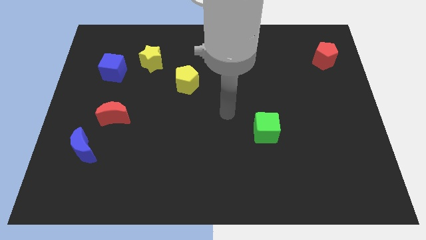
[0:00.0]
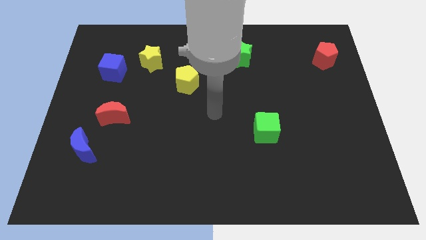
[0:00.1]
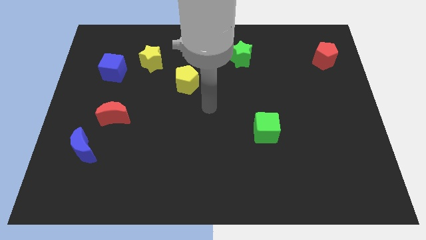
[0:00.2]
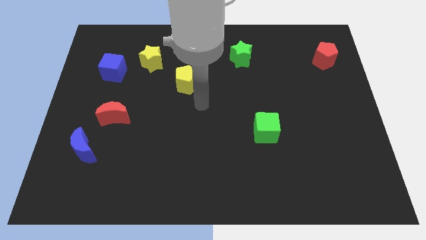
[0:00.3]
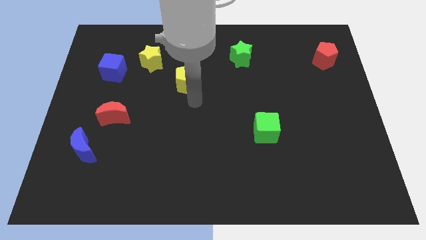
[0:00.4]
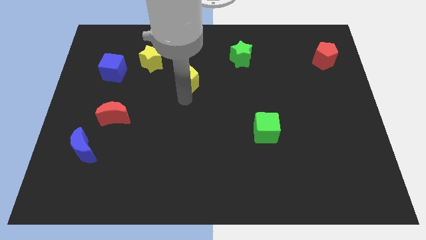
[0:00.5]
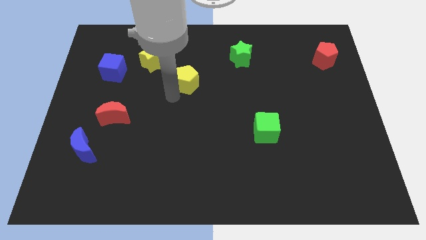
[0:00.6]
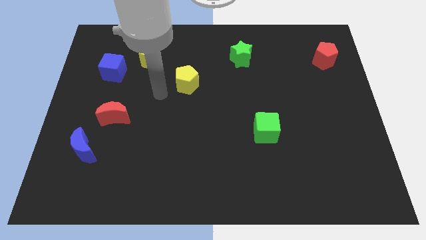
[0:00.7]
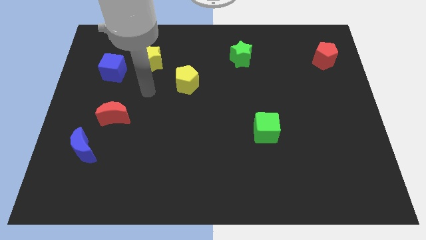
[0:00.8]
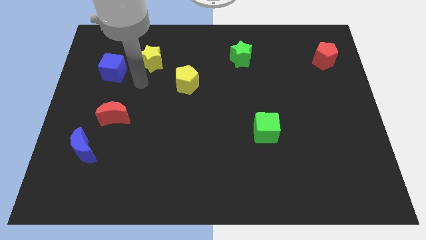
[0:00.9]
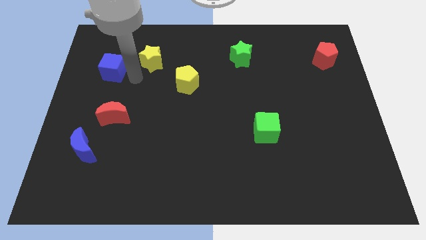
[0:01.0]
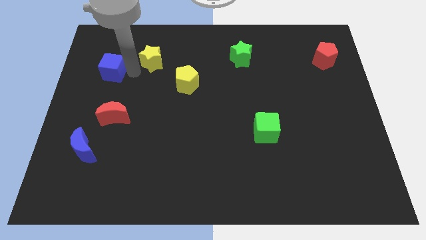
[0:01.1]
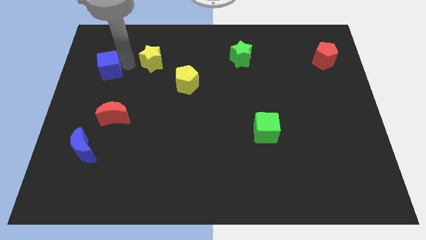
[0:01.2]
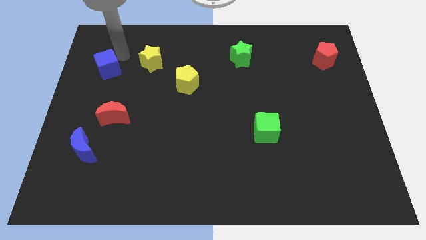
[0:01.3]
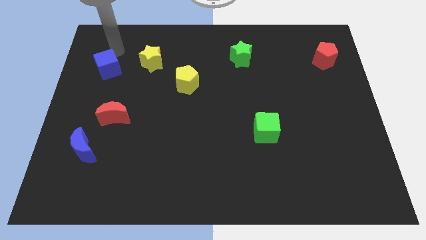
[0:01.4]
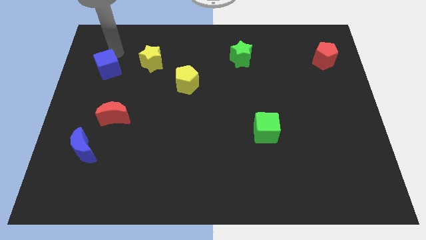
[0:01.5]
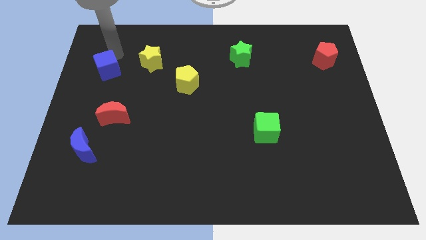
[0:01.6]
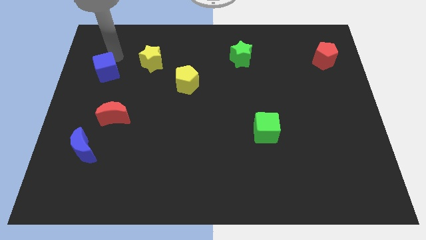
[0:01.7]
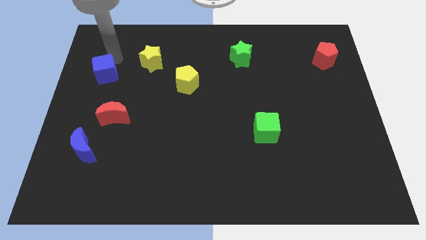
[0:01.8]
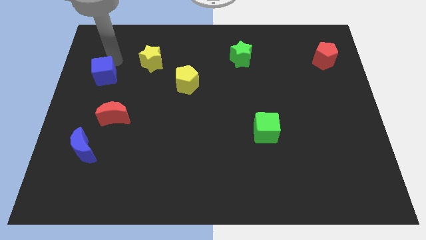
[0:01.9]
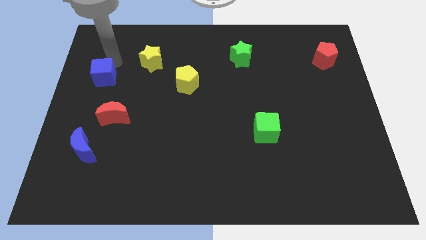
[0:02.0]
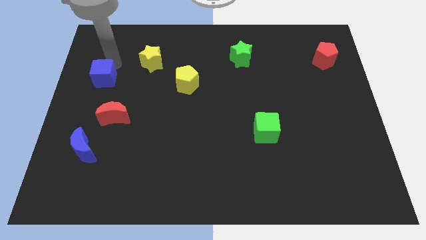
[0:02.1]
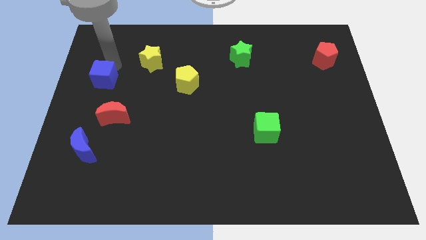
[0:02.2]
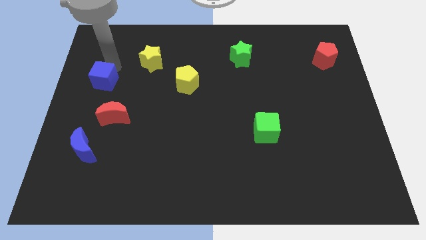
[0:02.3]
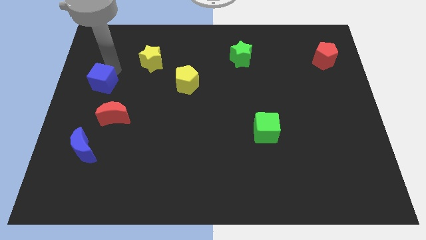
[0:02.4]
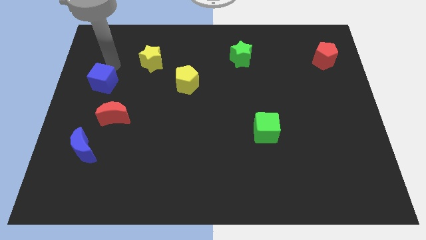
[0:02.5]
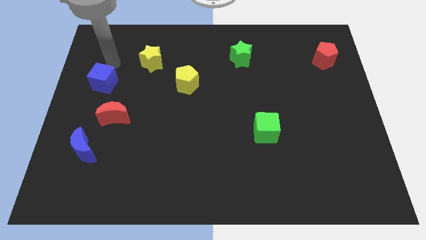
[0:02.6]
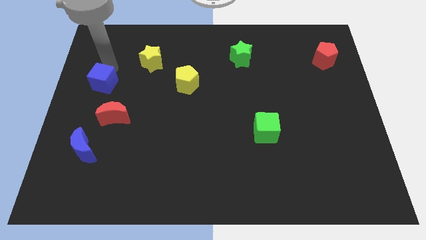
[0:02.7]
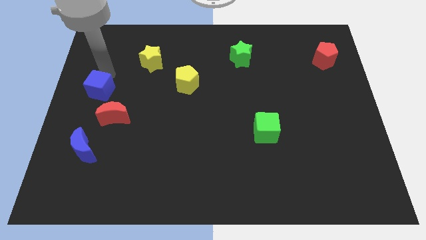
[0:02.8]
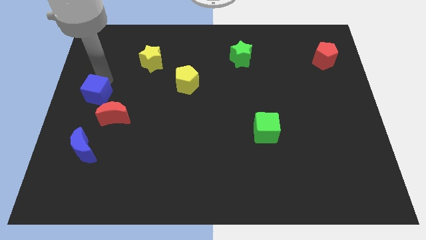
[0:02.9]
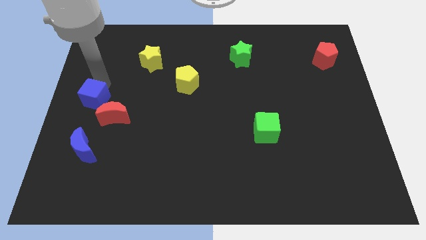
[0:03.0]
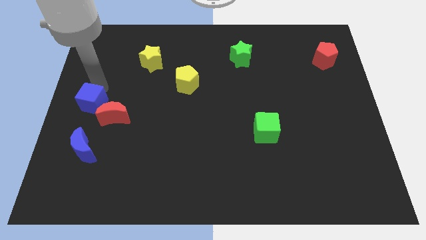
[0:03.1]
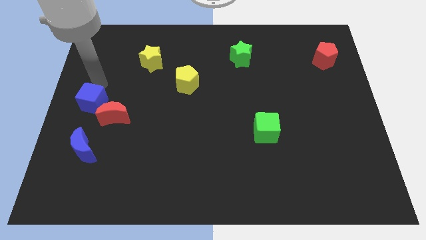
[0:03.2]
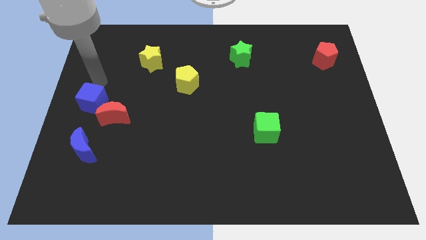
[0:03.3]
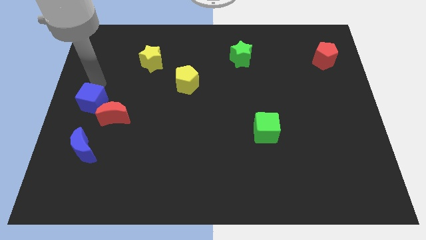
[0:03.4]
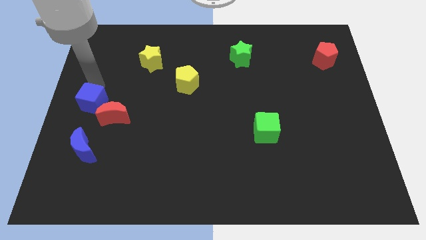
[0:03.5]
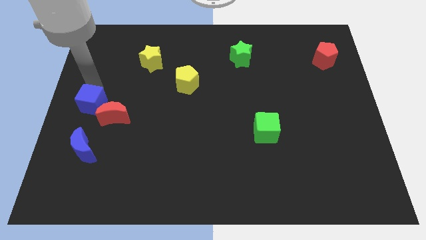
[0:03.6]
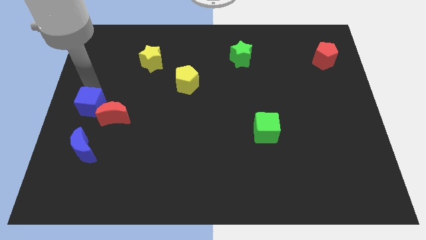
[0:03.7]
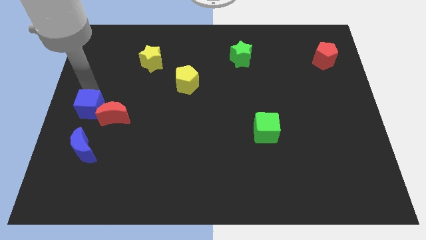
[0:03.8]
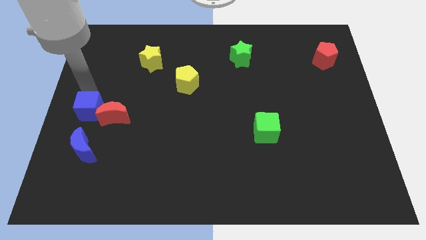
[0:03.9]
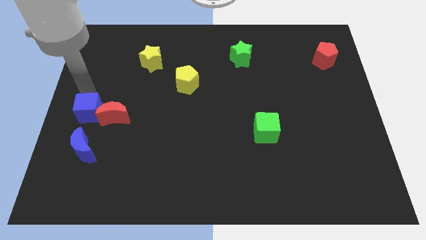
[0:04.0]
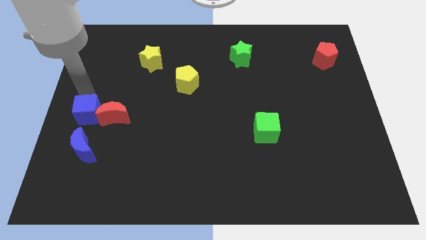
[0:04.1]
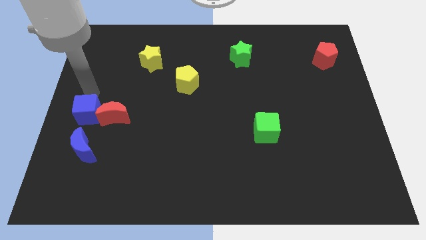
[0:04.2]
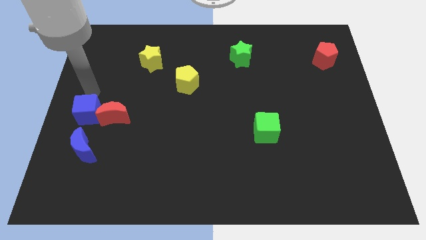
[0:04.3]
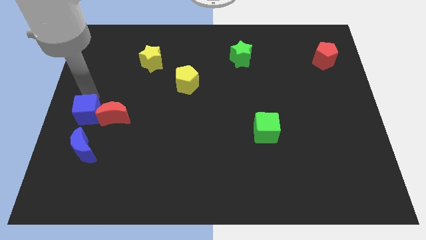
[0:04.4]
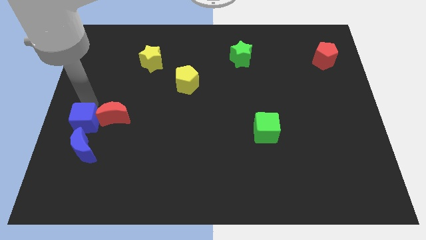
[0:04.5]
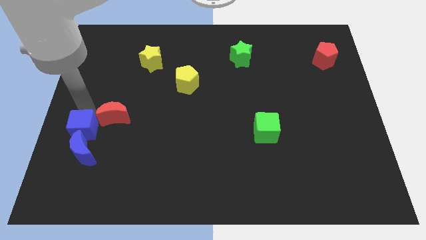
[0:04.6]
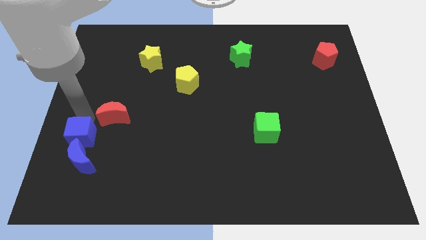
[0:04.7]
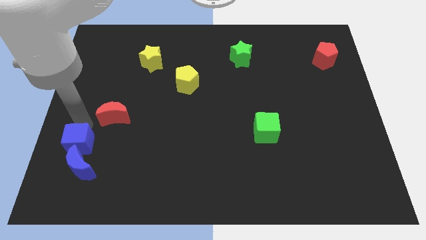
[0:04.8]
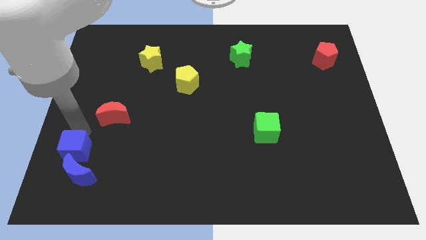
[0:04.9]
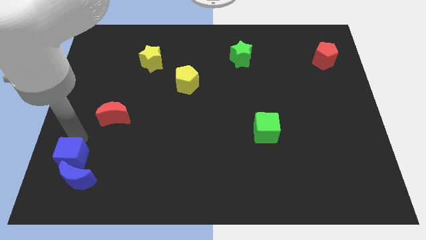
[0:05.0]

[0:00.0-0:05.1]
move the blue cube next to the blue moon

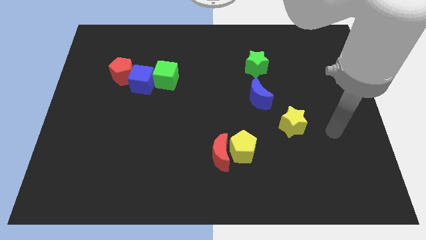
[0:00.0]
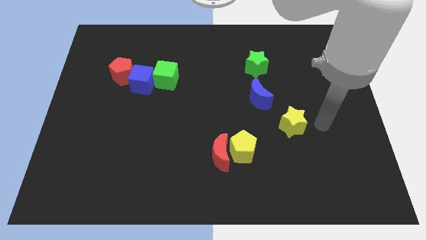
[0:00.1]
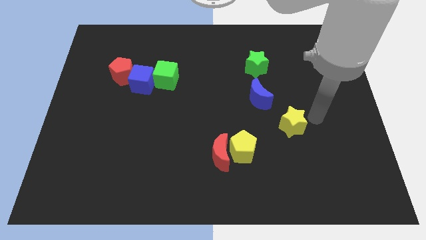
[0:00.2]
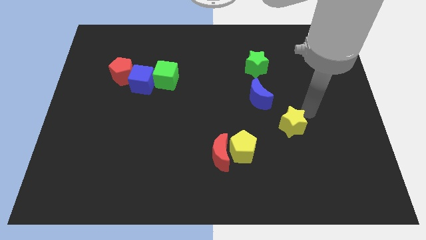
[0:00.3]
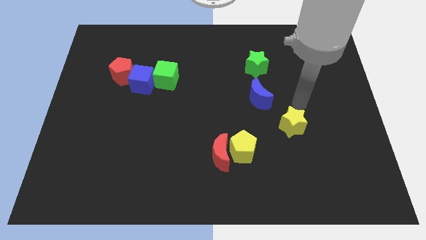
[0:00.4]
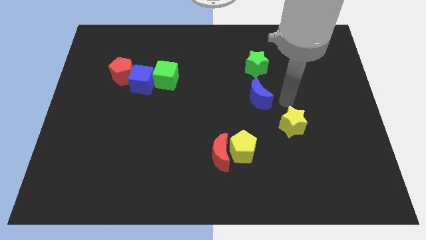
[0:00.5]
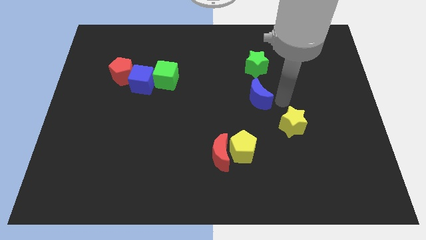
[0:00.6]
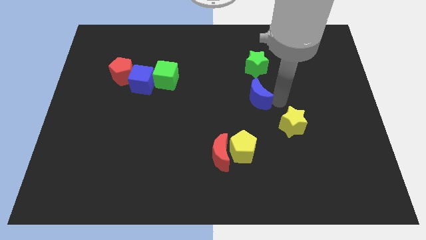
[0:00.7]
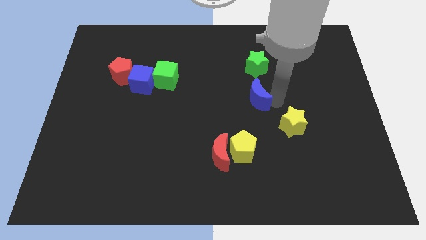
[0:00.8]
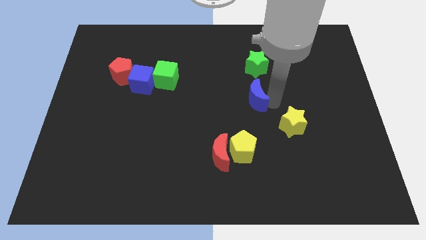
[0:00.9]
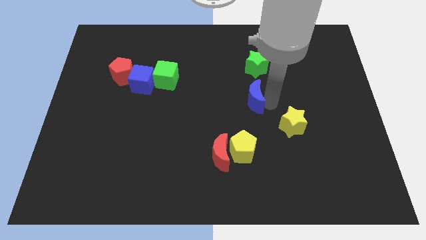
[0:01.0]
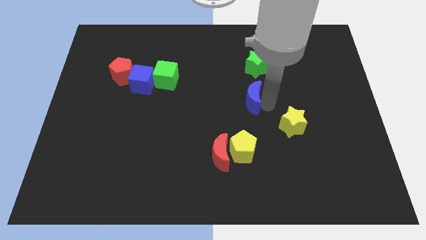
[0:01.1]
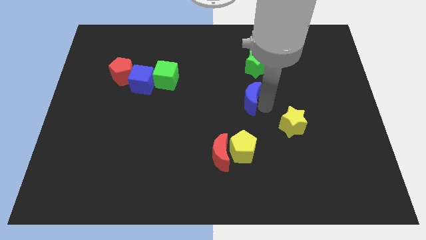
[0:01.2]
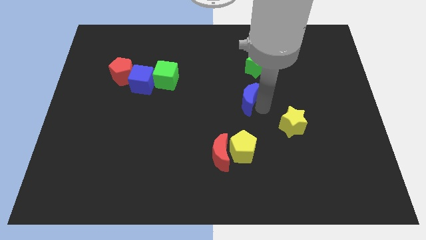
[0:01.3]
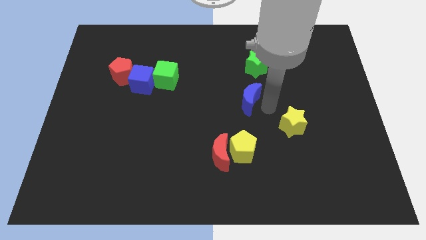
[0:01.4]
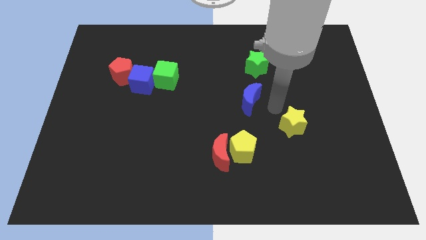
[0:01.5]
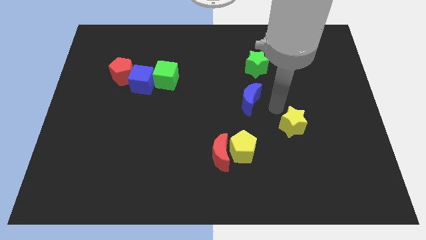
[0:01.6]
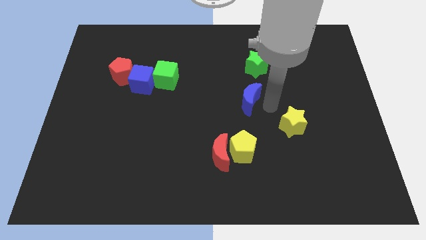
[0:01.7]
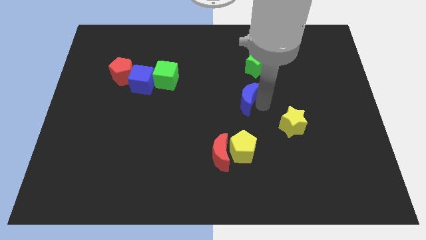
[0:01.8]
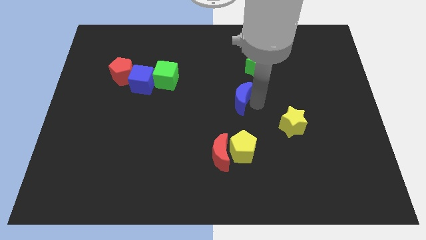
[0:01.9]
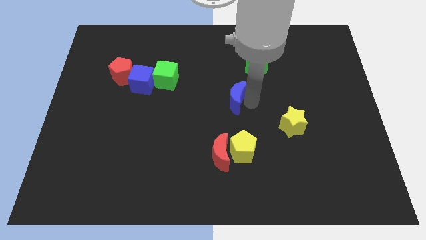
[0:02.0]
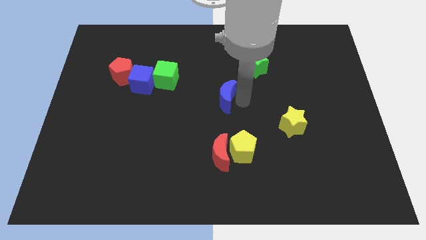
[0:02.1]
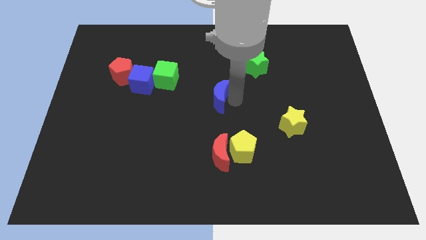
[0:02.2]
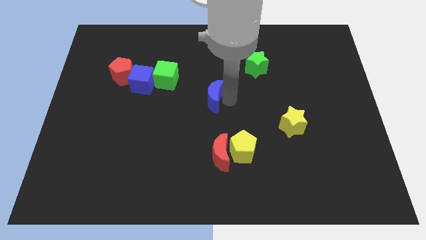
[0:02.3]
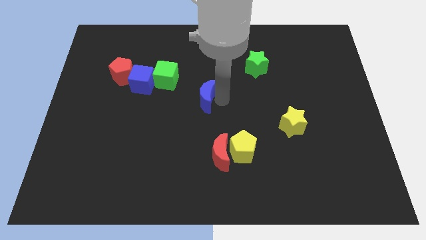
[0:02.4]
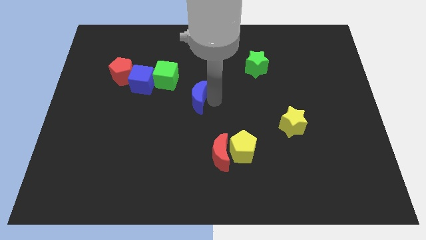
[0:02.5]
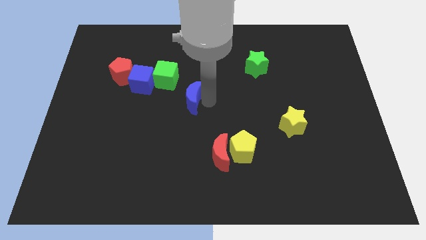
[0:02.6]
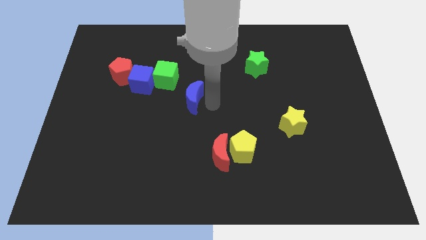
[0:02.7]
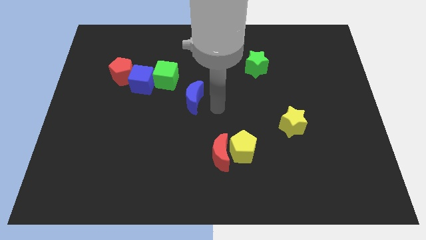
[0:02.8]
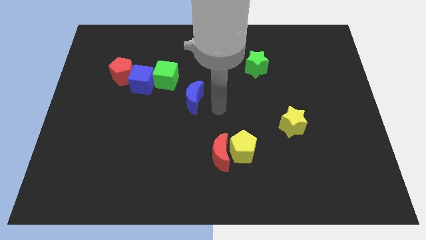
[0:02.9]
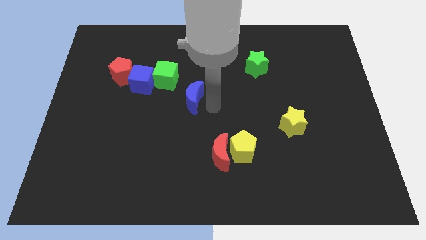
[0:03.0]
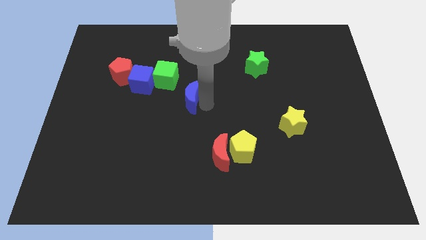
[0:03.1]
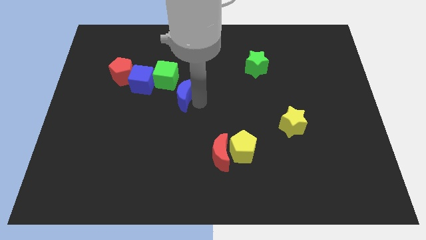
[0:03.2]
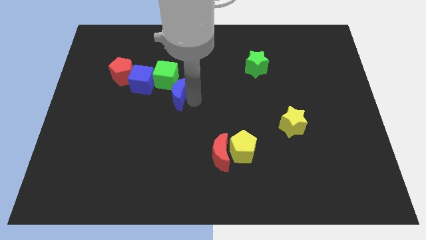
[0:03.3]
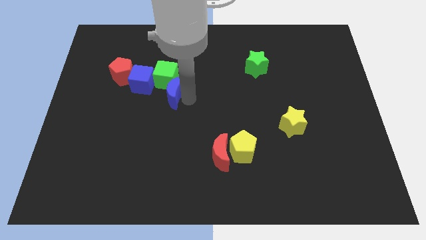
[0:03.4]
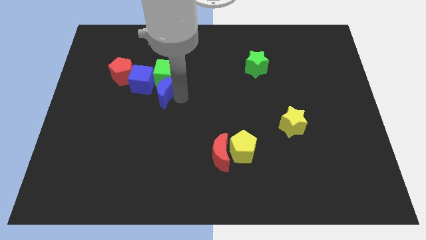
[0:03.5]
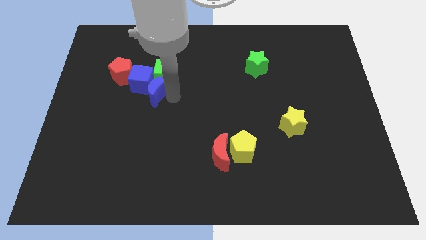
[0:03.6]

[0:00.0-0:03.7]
push the blue moon close to the blue cube
